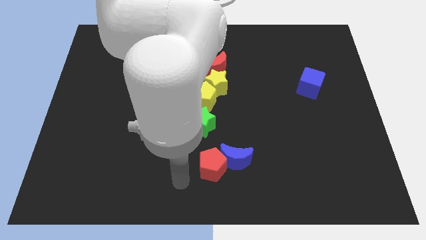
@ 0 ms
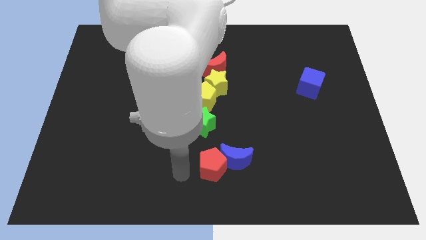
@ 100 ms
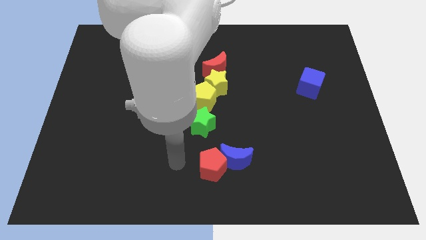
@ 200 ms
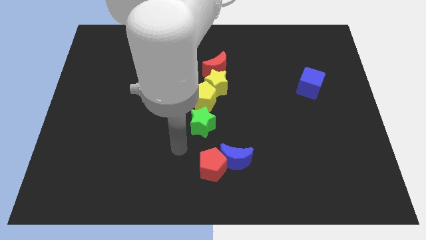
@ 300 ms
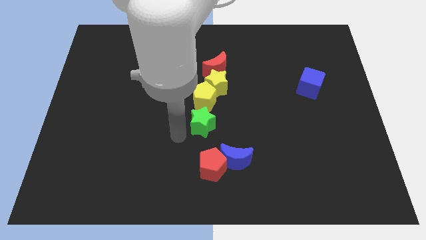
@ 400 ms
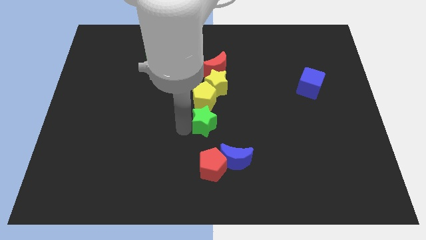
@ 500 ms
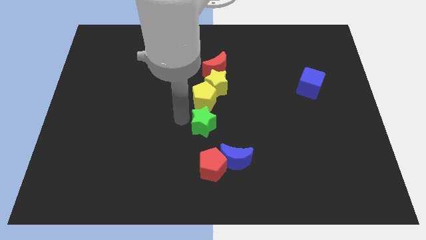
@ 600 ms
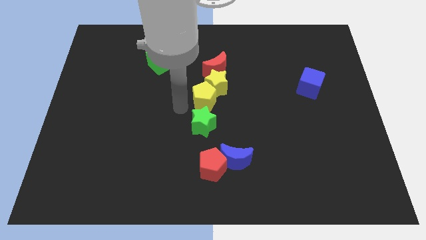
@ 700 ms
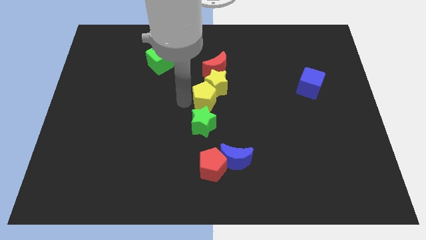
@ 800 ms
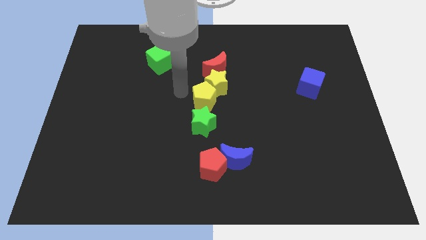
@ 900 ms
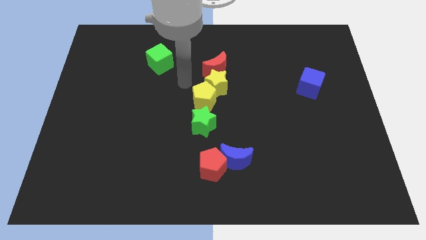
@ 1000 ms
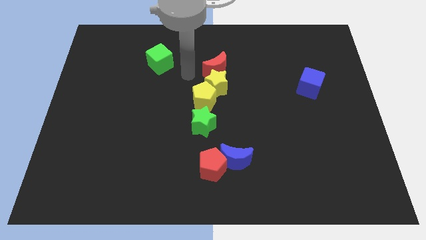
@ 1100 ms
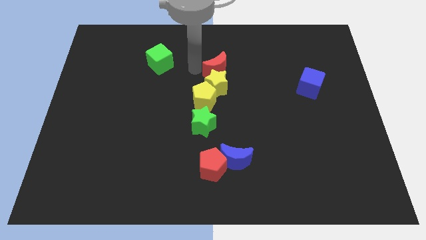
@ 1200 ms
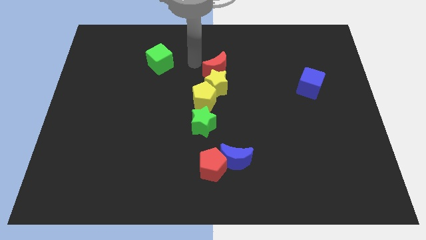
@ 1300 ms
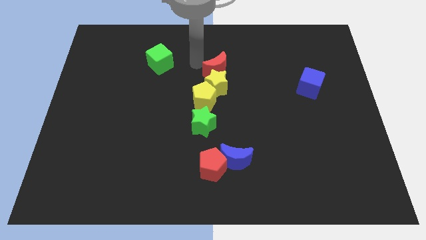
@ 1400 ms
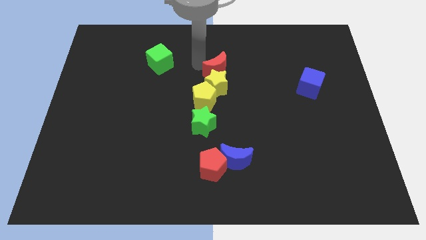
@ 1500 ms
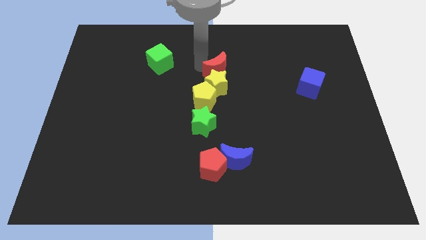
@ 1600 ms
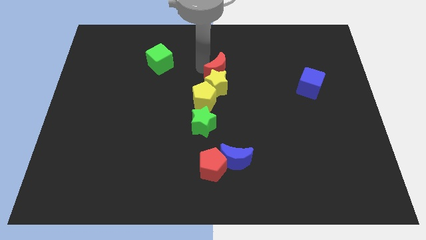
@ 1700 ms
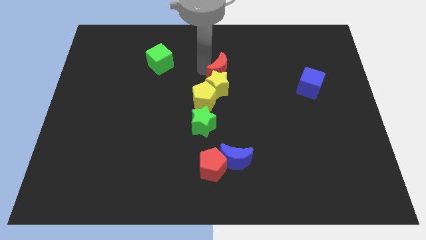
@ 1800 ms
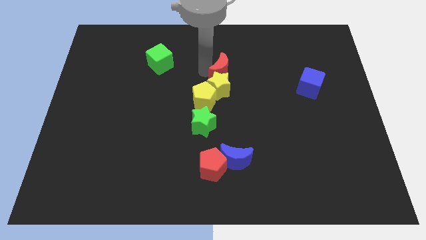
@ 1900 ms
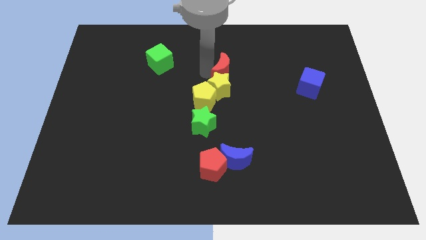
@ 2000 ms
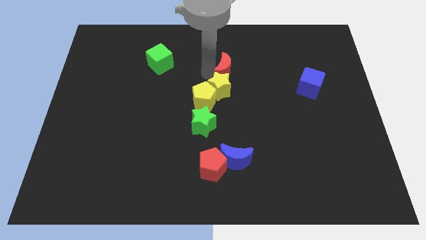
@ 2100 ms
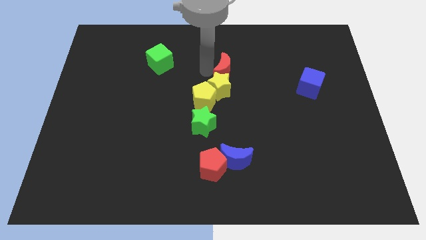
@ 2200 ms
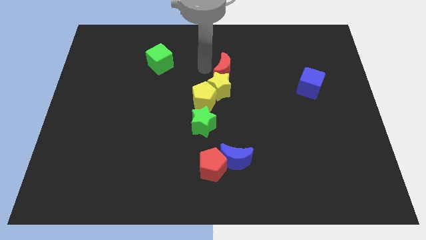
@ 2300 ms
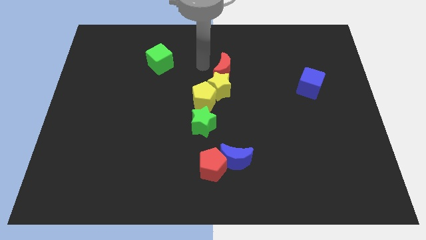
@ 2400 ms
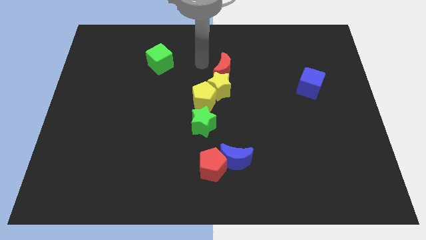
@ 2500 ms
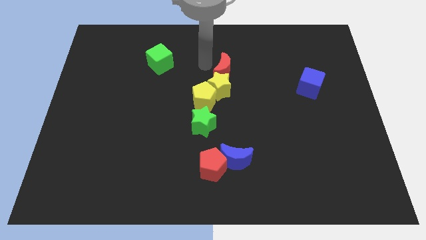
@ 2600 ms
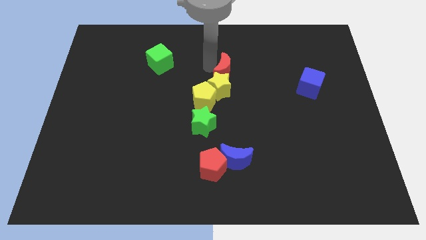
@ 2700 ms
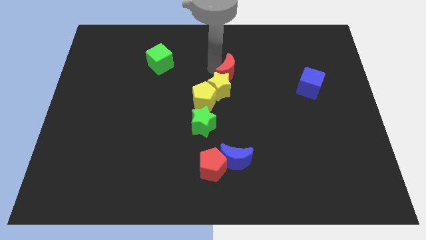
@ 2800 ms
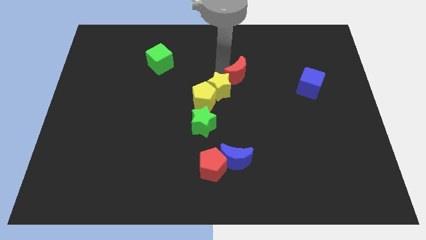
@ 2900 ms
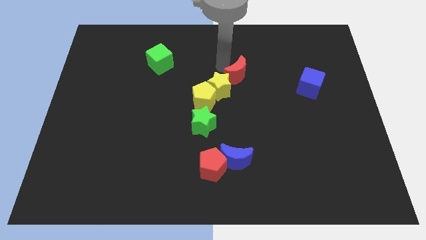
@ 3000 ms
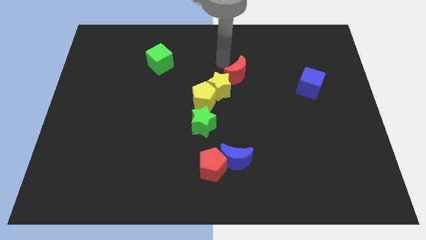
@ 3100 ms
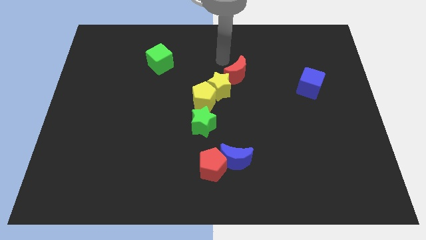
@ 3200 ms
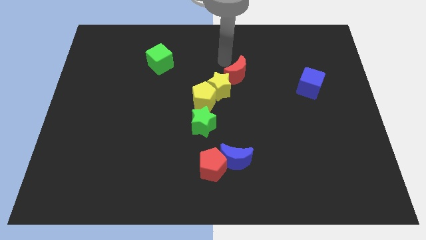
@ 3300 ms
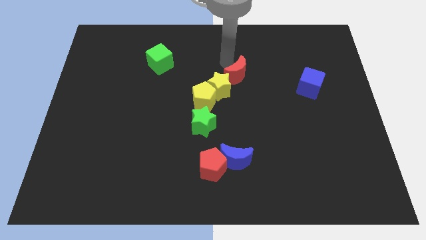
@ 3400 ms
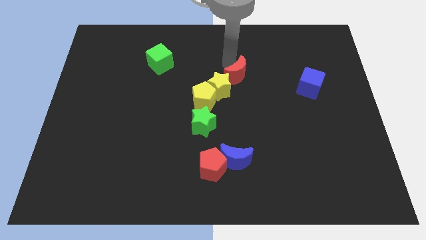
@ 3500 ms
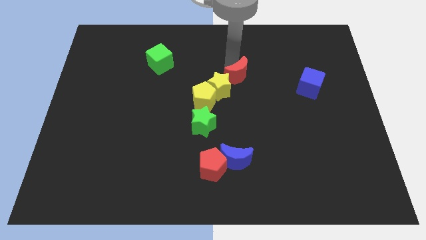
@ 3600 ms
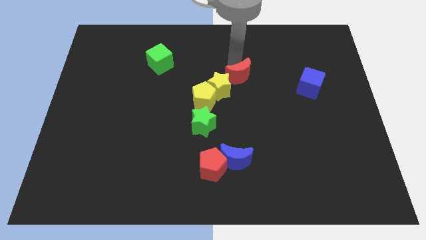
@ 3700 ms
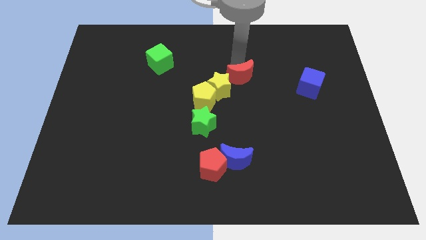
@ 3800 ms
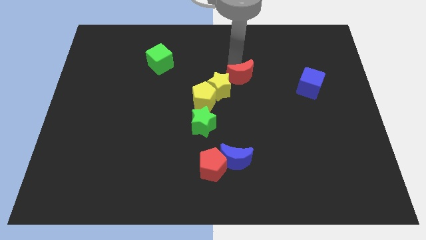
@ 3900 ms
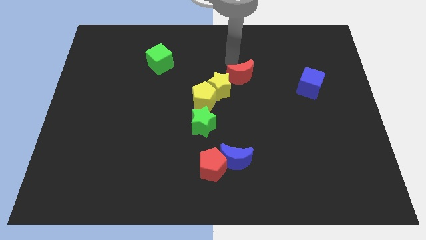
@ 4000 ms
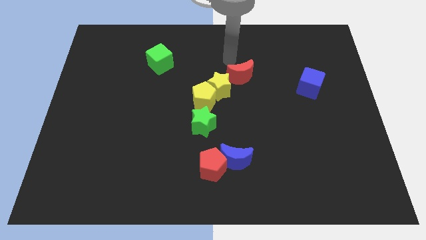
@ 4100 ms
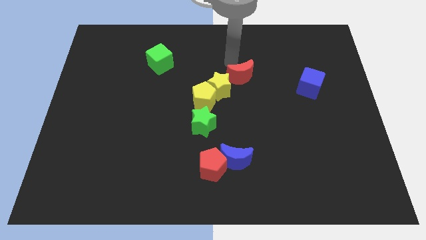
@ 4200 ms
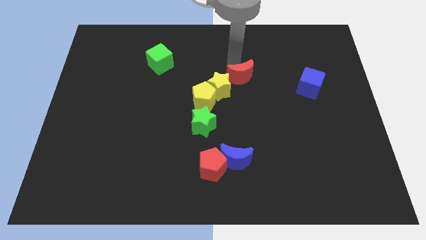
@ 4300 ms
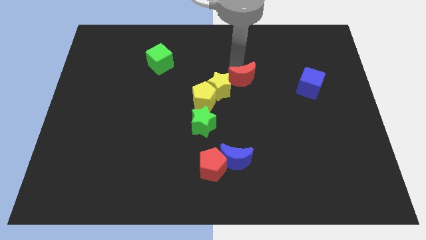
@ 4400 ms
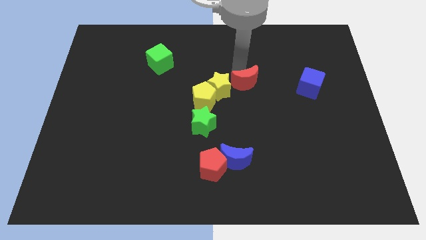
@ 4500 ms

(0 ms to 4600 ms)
push the red moon a little bit downwards and then to the right

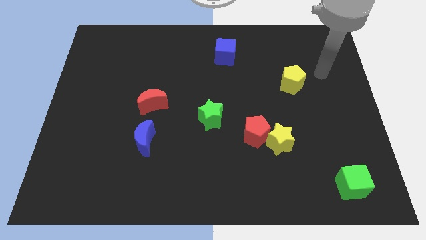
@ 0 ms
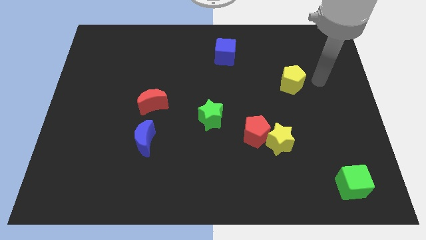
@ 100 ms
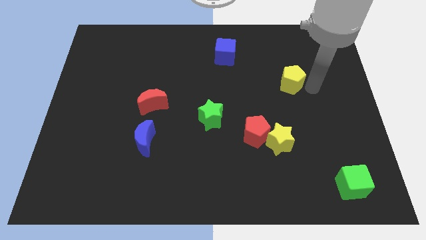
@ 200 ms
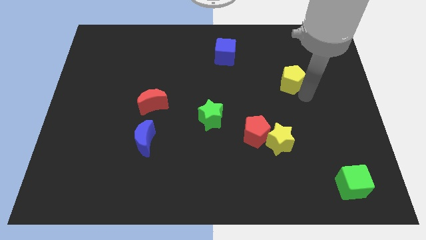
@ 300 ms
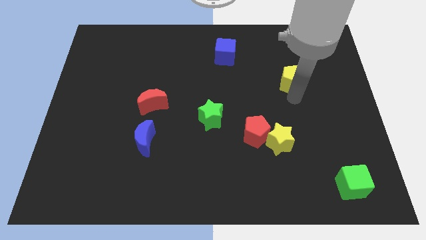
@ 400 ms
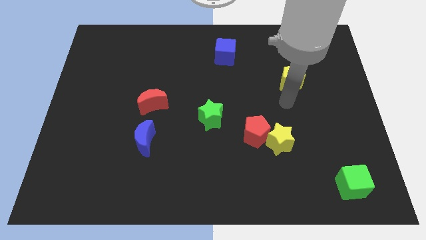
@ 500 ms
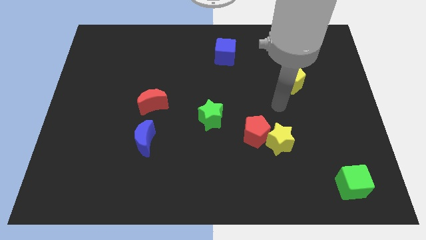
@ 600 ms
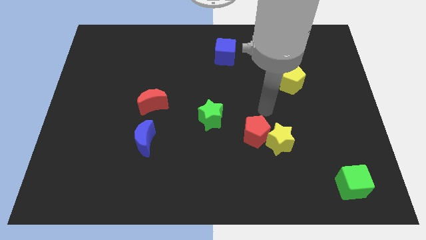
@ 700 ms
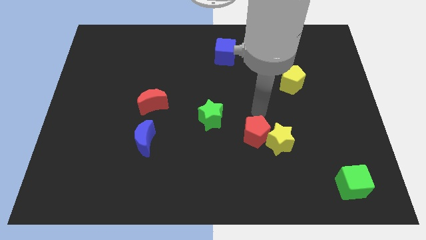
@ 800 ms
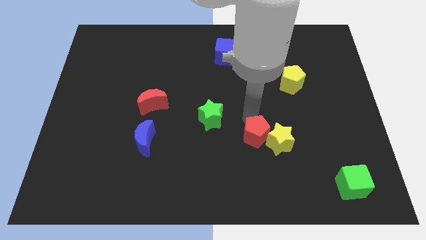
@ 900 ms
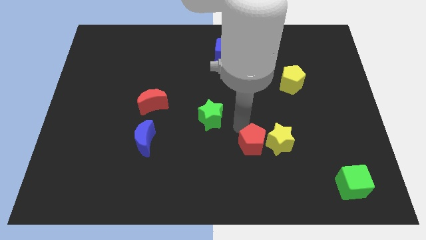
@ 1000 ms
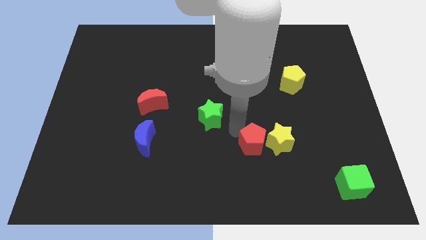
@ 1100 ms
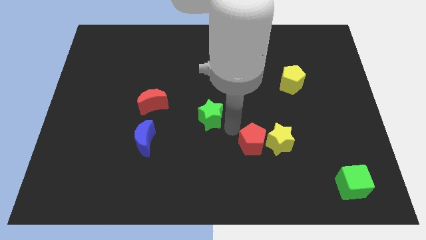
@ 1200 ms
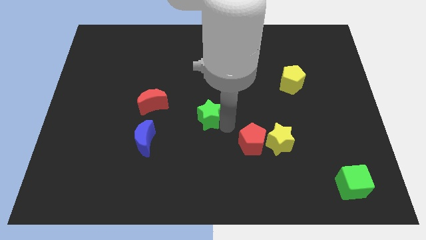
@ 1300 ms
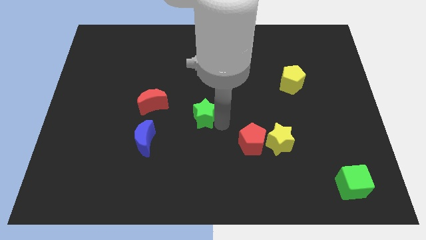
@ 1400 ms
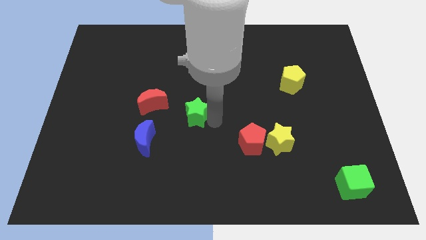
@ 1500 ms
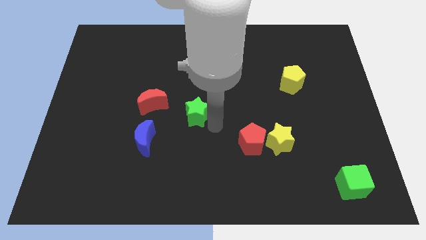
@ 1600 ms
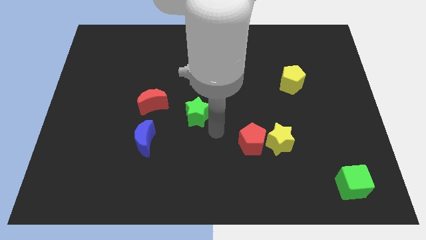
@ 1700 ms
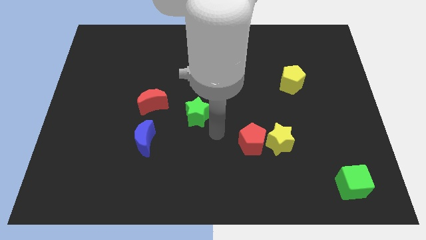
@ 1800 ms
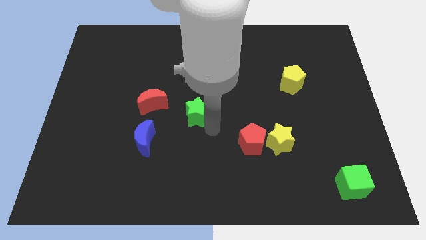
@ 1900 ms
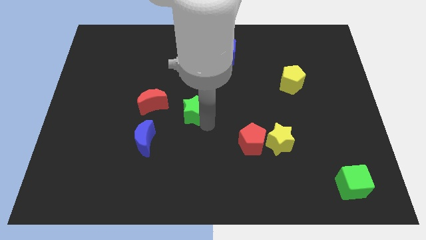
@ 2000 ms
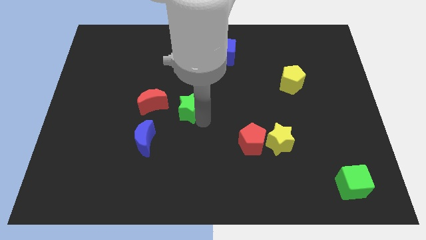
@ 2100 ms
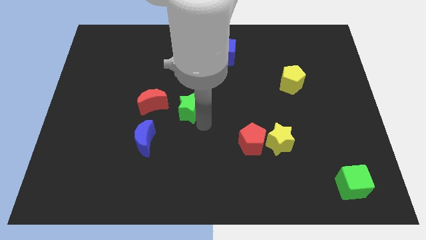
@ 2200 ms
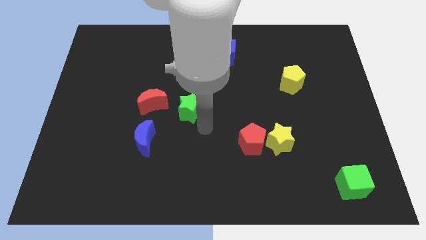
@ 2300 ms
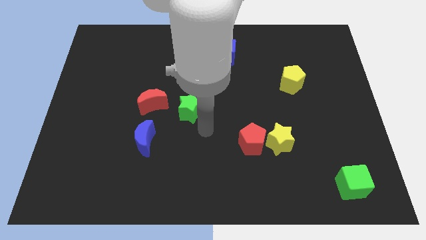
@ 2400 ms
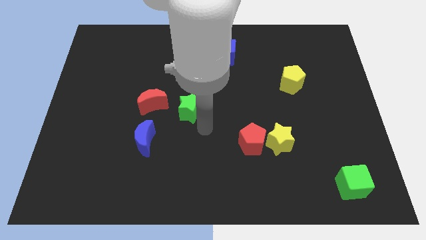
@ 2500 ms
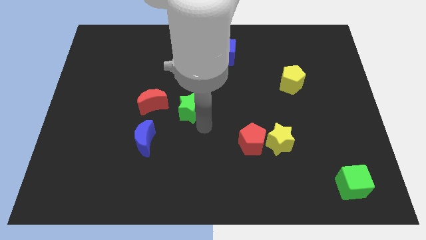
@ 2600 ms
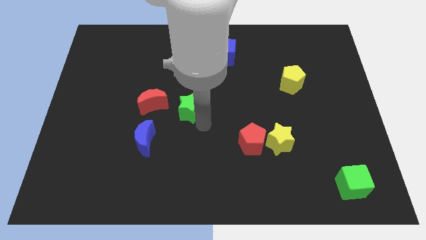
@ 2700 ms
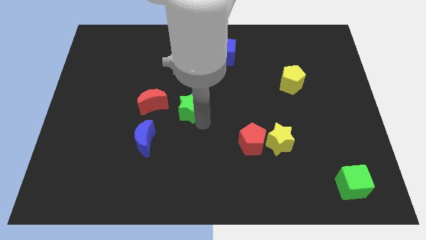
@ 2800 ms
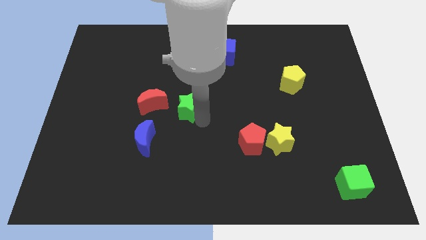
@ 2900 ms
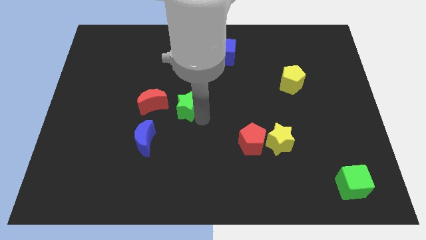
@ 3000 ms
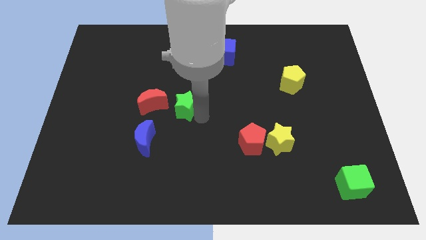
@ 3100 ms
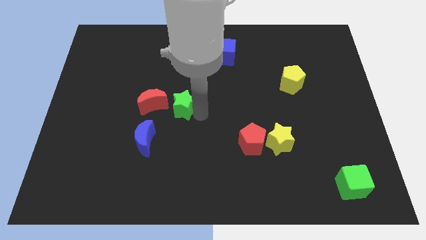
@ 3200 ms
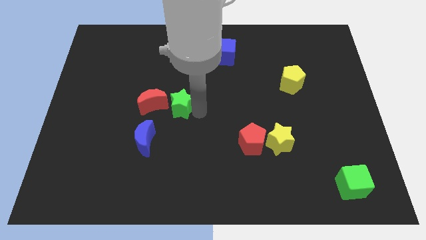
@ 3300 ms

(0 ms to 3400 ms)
push the green star upwards and left diagonally slightly
